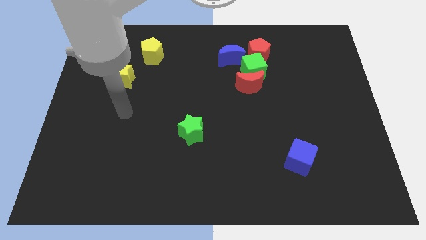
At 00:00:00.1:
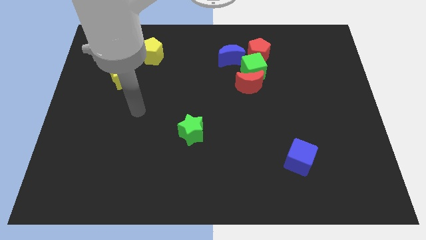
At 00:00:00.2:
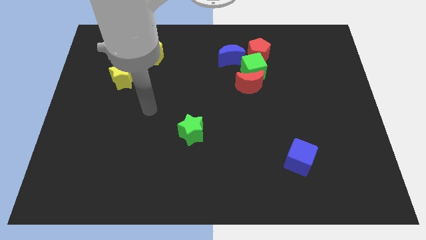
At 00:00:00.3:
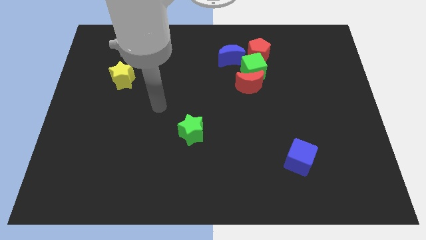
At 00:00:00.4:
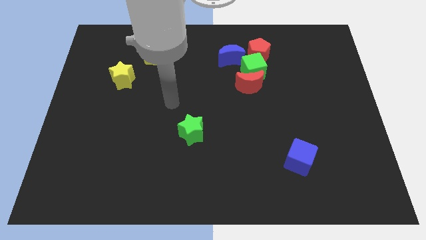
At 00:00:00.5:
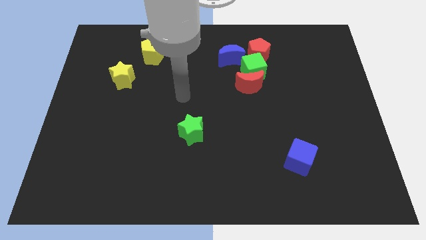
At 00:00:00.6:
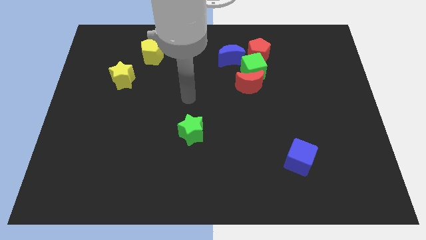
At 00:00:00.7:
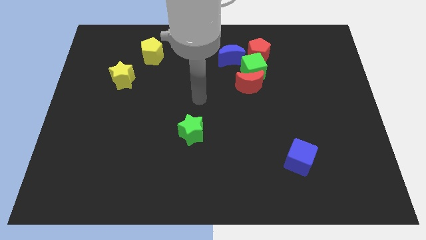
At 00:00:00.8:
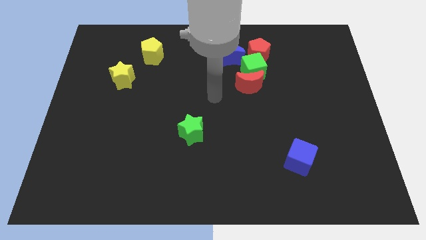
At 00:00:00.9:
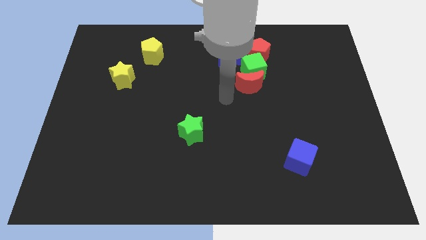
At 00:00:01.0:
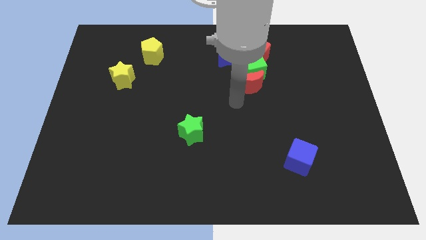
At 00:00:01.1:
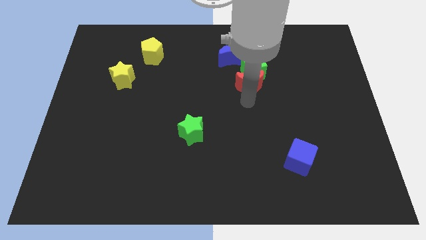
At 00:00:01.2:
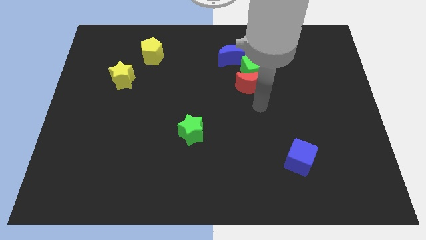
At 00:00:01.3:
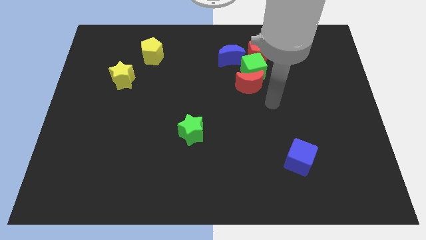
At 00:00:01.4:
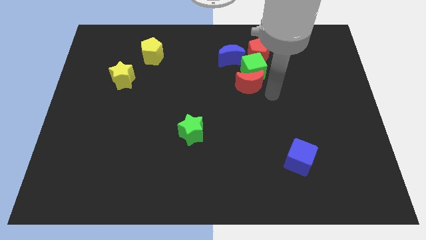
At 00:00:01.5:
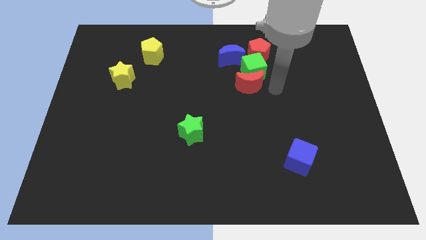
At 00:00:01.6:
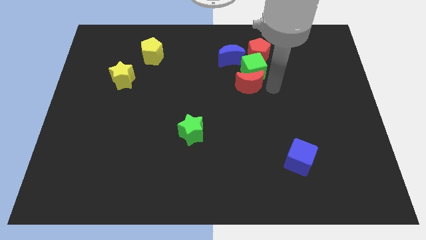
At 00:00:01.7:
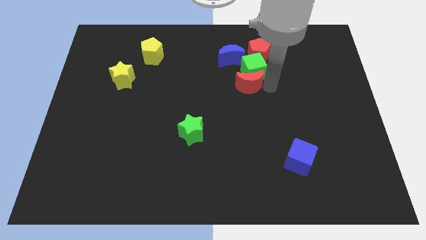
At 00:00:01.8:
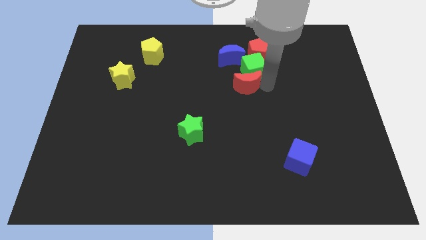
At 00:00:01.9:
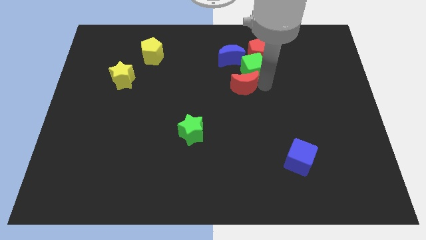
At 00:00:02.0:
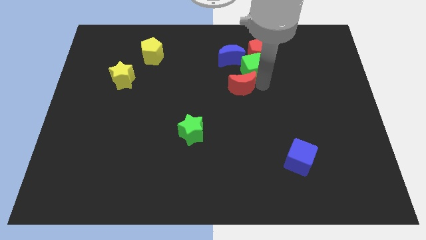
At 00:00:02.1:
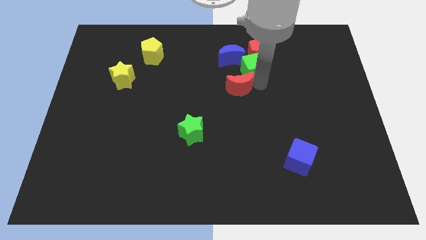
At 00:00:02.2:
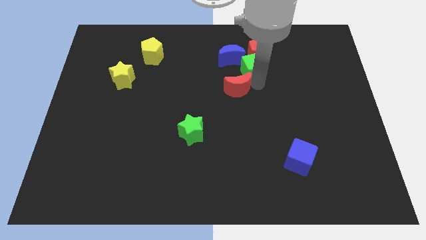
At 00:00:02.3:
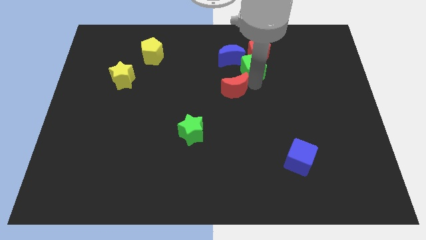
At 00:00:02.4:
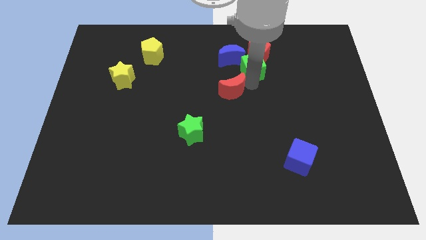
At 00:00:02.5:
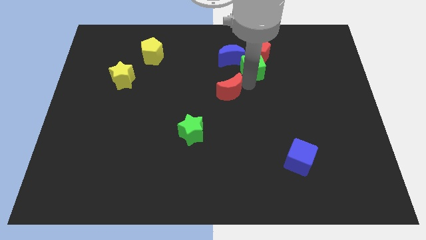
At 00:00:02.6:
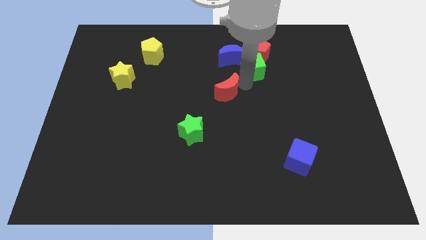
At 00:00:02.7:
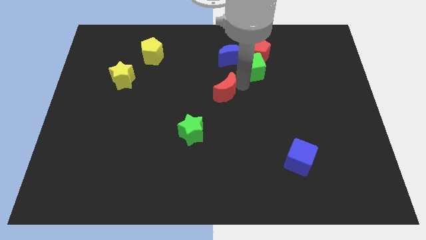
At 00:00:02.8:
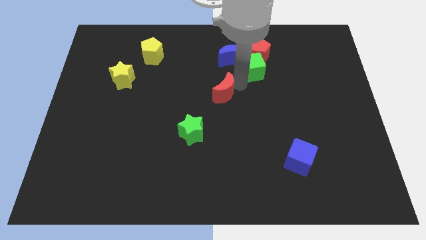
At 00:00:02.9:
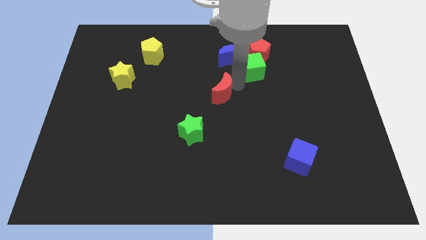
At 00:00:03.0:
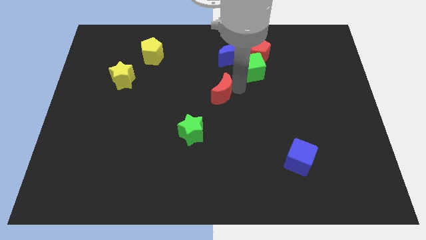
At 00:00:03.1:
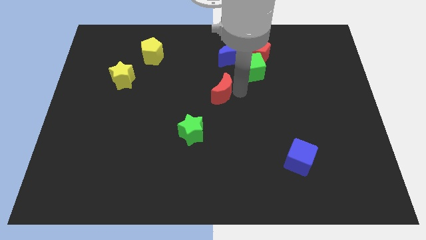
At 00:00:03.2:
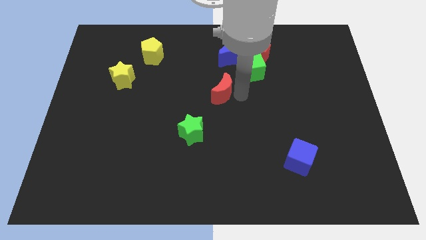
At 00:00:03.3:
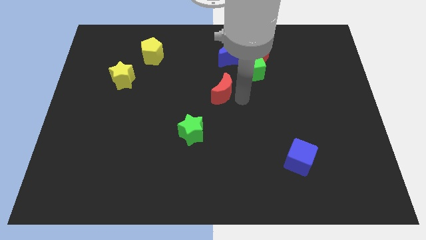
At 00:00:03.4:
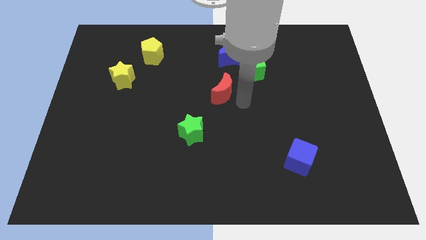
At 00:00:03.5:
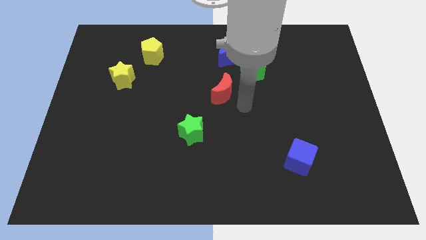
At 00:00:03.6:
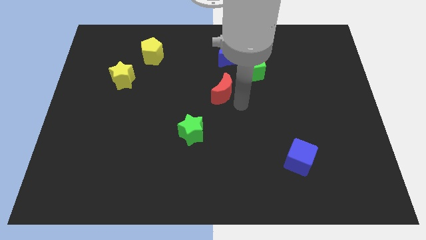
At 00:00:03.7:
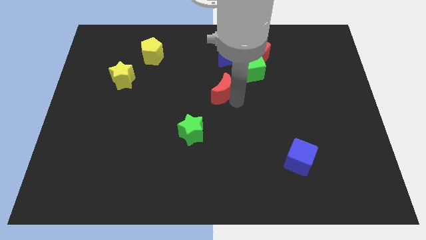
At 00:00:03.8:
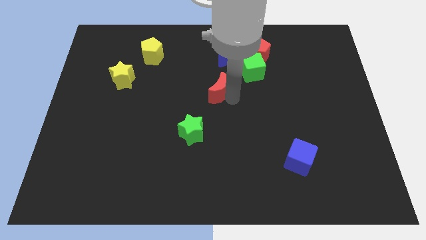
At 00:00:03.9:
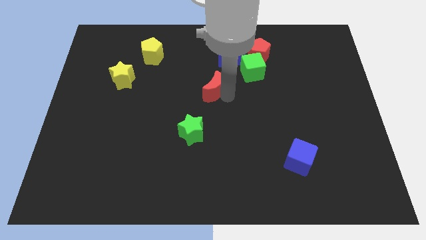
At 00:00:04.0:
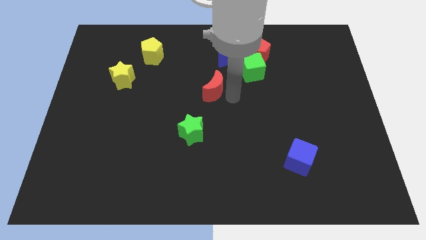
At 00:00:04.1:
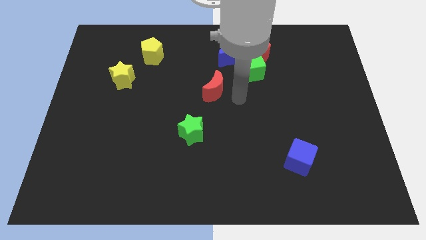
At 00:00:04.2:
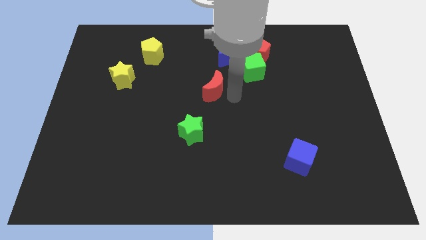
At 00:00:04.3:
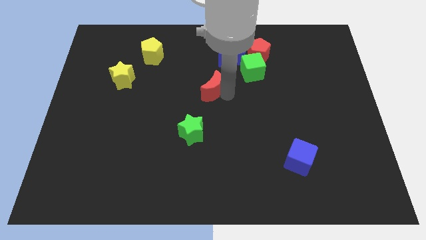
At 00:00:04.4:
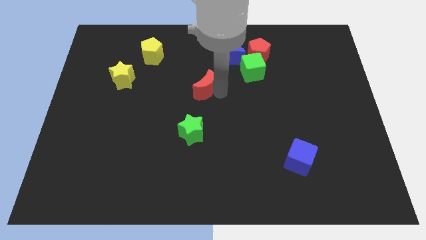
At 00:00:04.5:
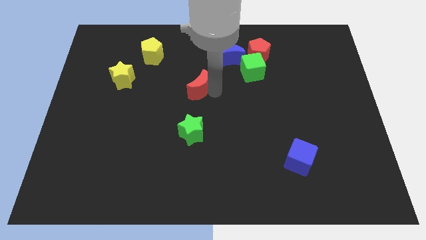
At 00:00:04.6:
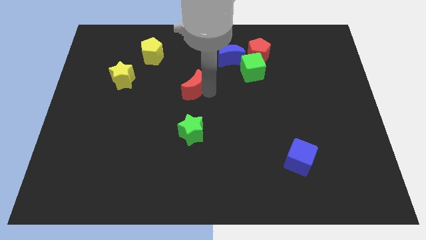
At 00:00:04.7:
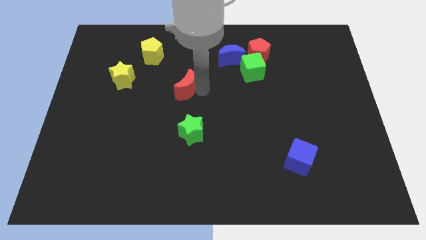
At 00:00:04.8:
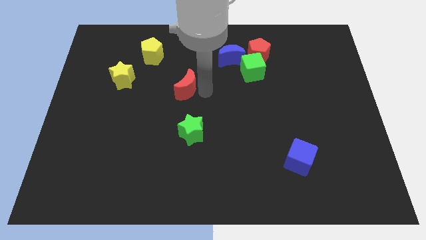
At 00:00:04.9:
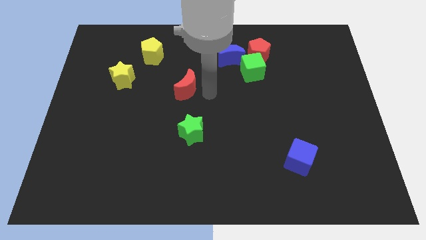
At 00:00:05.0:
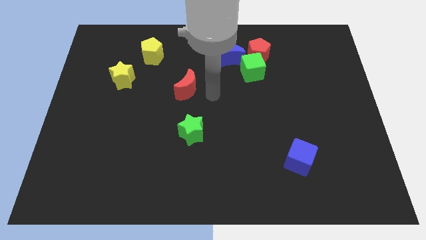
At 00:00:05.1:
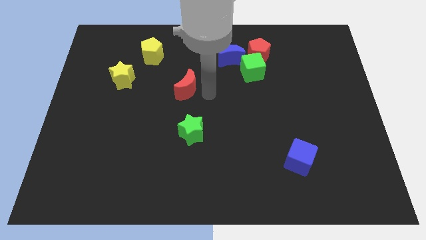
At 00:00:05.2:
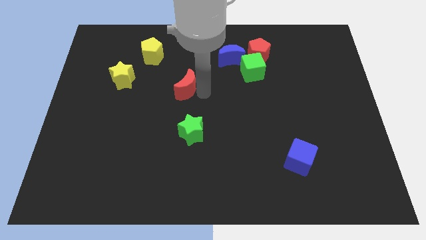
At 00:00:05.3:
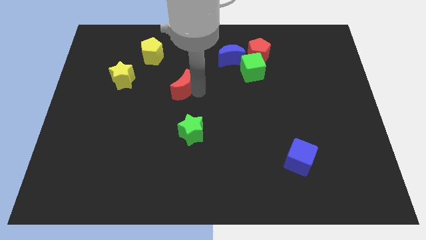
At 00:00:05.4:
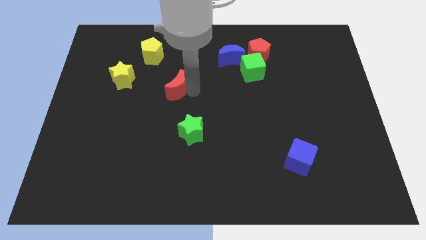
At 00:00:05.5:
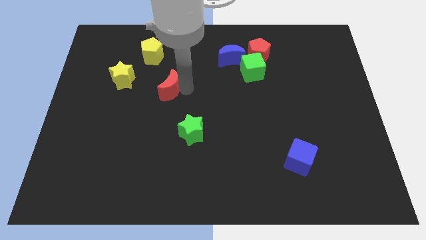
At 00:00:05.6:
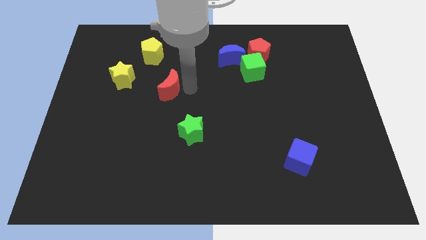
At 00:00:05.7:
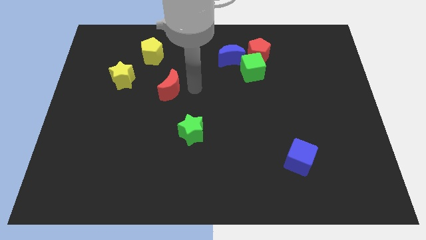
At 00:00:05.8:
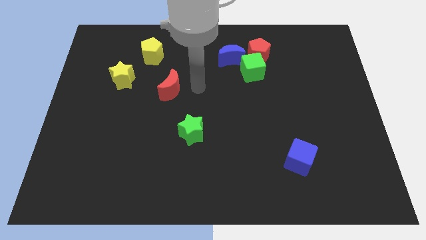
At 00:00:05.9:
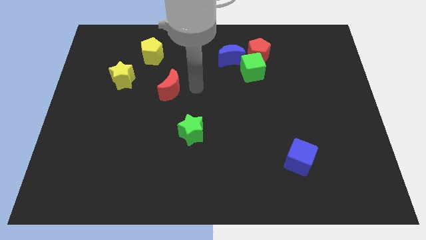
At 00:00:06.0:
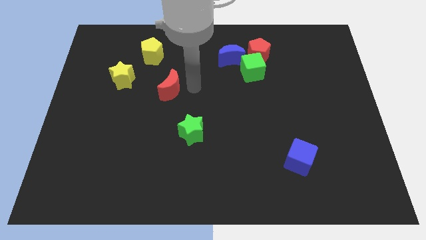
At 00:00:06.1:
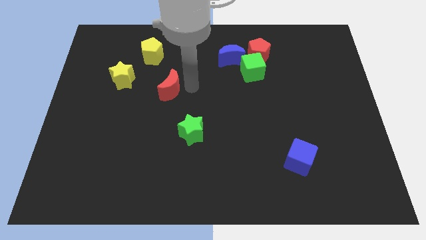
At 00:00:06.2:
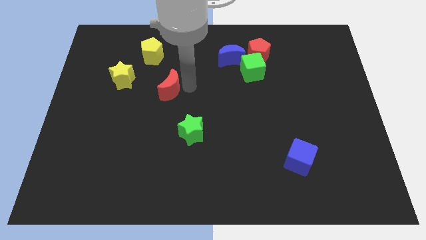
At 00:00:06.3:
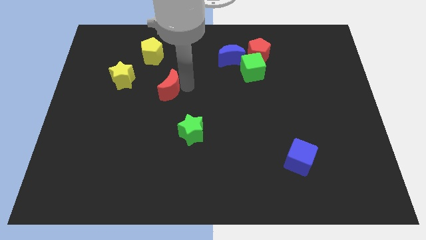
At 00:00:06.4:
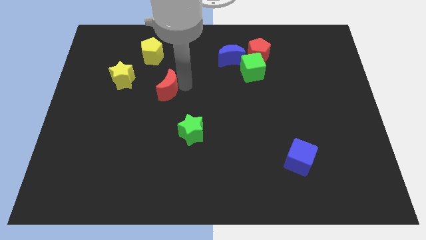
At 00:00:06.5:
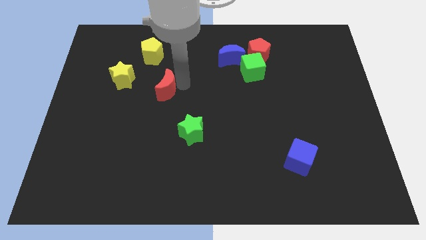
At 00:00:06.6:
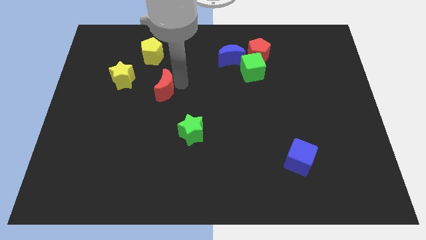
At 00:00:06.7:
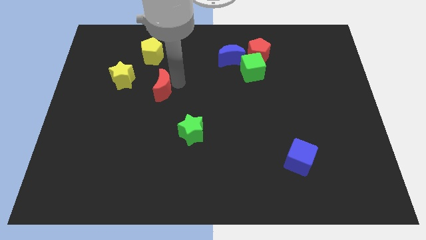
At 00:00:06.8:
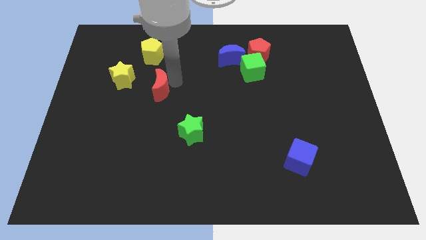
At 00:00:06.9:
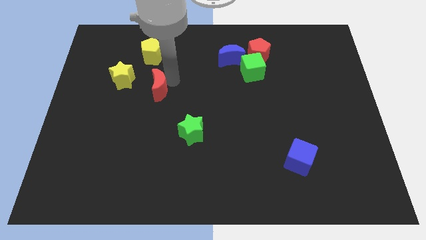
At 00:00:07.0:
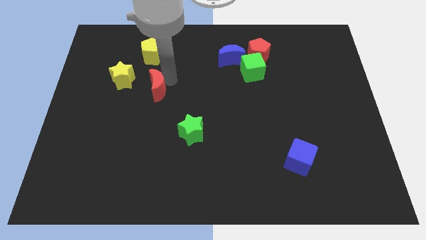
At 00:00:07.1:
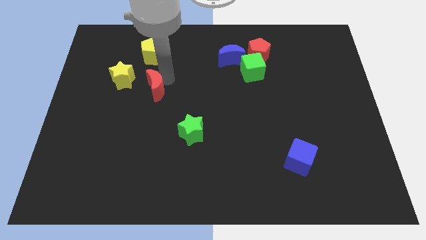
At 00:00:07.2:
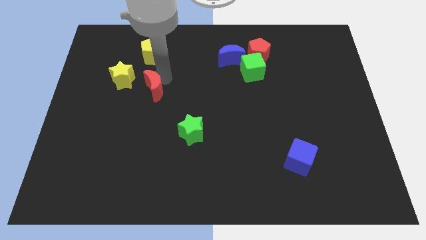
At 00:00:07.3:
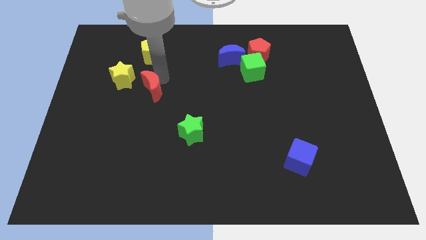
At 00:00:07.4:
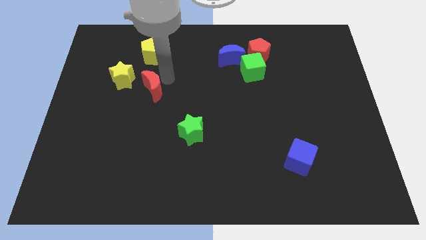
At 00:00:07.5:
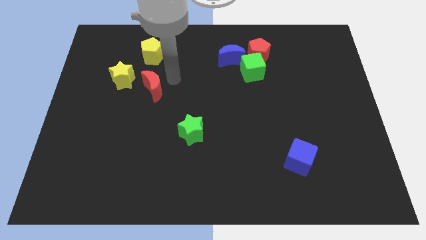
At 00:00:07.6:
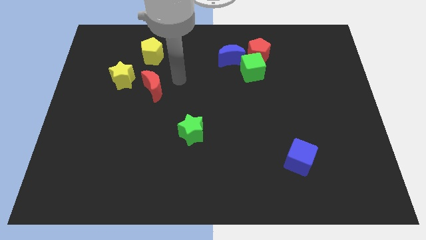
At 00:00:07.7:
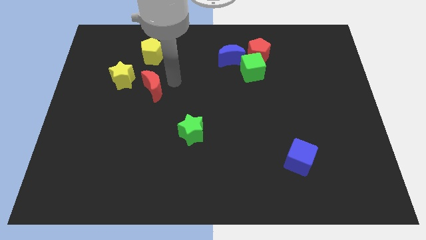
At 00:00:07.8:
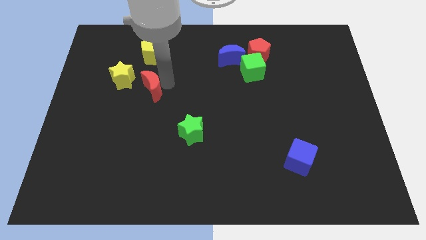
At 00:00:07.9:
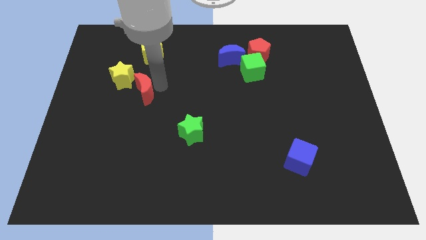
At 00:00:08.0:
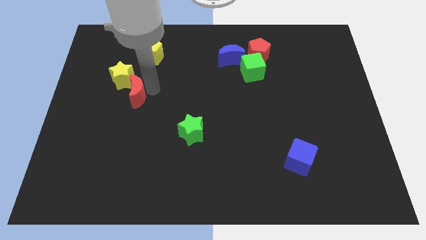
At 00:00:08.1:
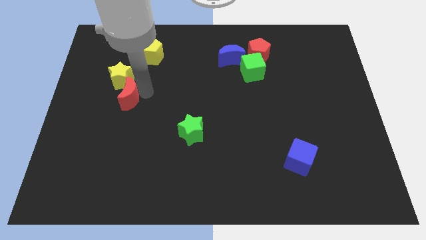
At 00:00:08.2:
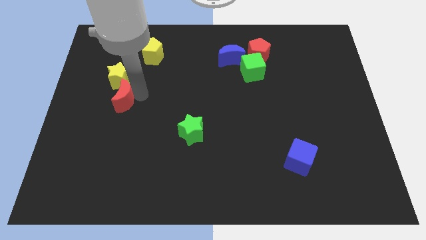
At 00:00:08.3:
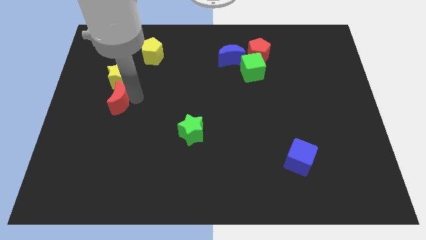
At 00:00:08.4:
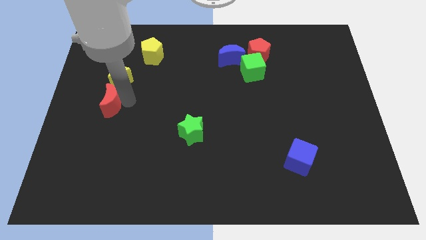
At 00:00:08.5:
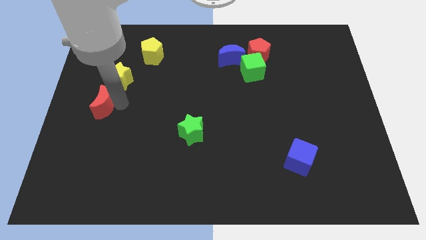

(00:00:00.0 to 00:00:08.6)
move the red moon to the center left
